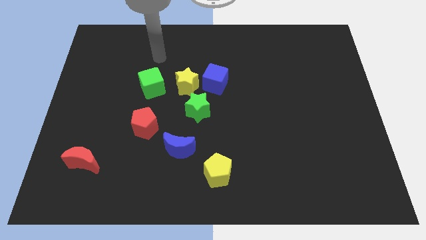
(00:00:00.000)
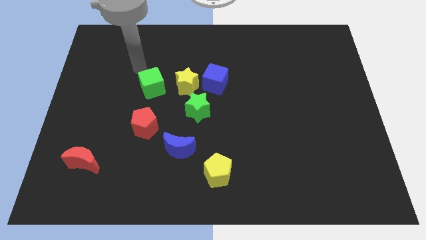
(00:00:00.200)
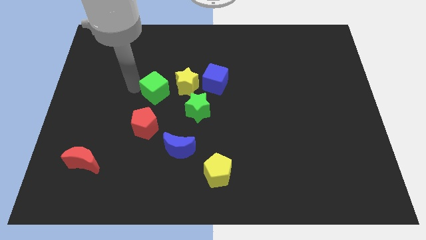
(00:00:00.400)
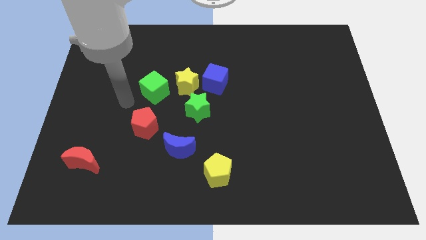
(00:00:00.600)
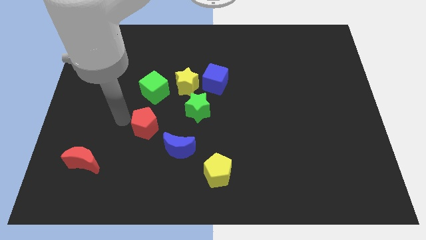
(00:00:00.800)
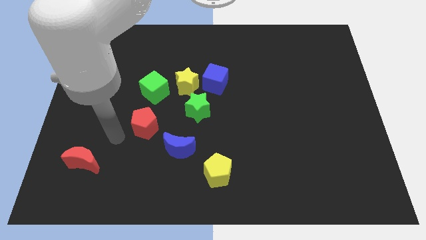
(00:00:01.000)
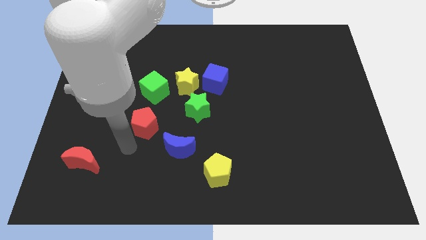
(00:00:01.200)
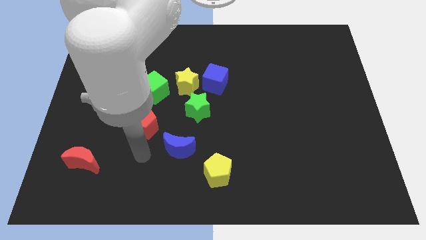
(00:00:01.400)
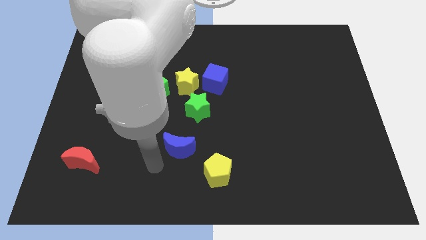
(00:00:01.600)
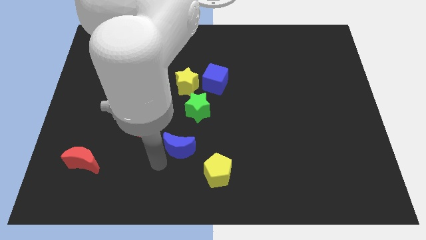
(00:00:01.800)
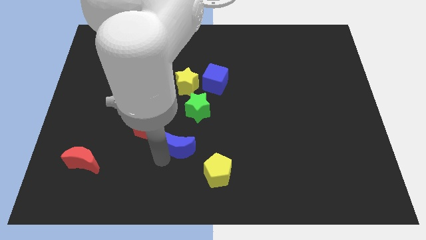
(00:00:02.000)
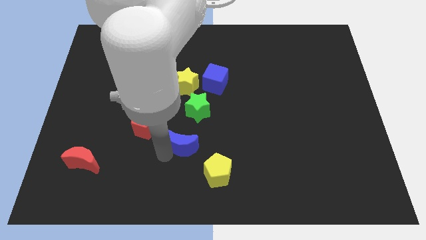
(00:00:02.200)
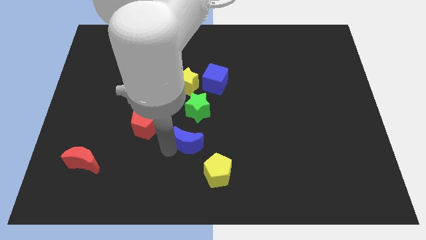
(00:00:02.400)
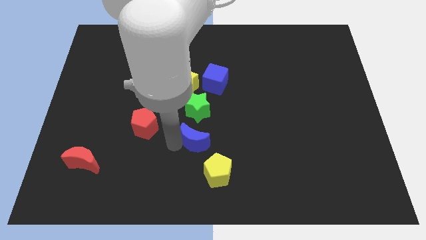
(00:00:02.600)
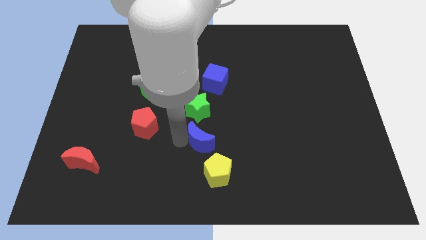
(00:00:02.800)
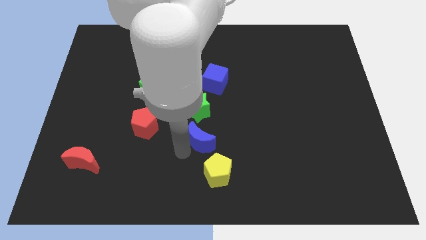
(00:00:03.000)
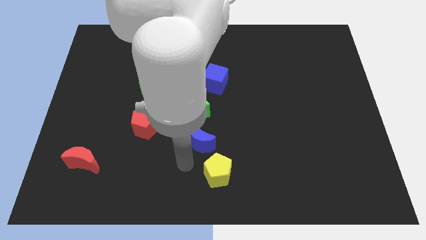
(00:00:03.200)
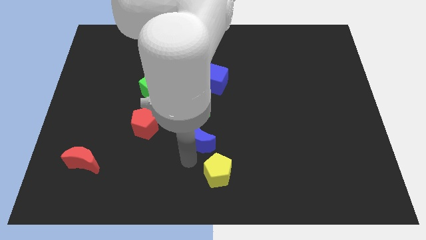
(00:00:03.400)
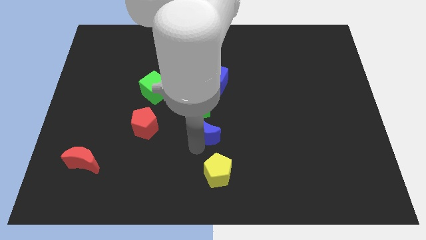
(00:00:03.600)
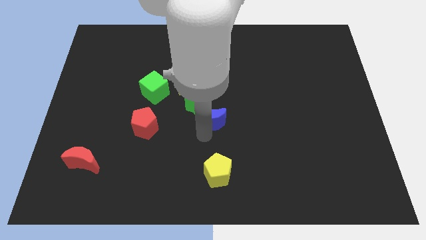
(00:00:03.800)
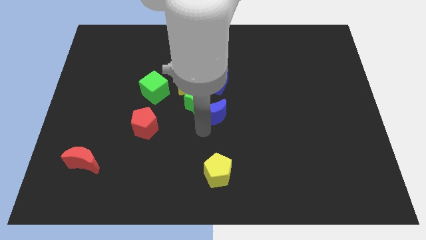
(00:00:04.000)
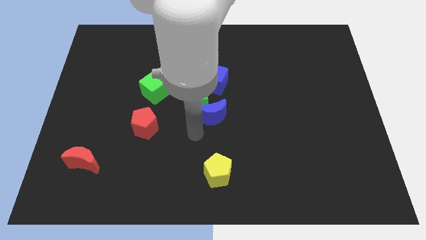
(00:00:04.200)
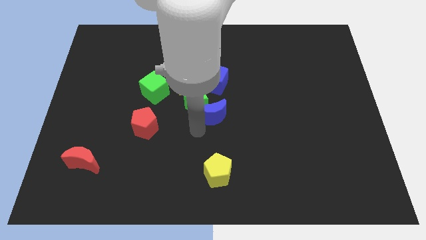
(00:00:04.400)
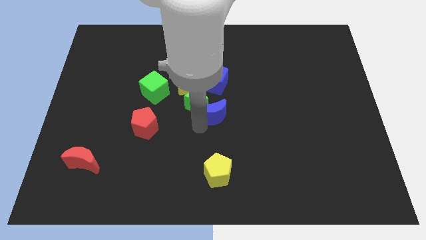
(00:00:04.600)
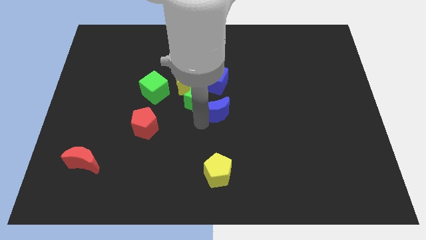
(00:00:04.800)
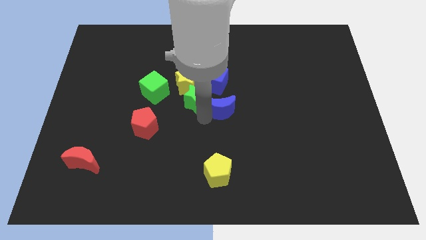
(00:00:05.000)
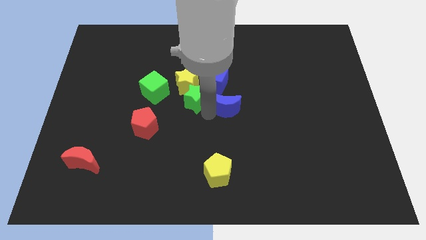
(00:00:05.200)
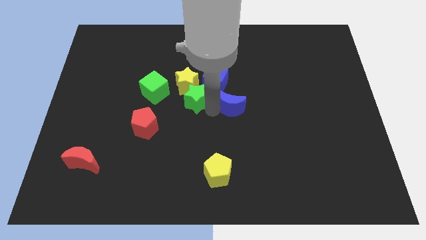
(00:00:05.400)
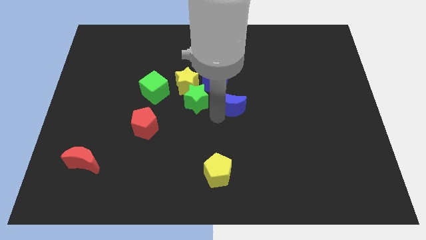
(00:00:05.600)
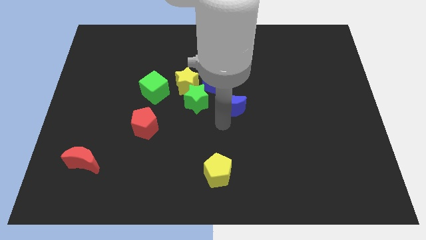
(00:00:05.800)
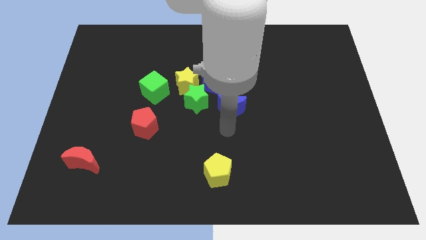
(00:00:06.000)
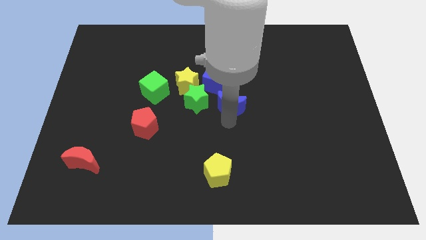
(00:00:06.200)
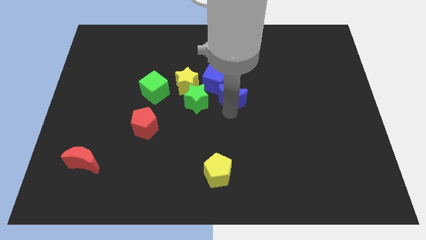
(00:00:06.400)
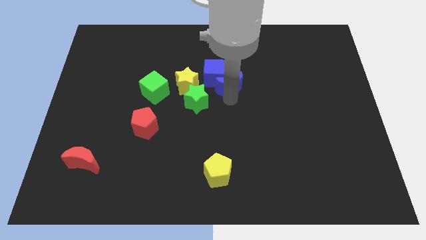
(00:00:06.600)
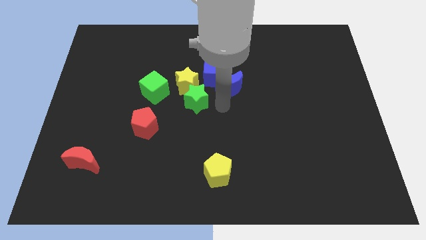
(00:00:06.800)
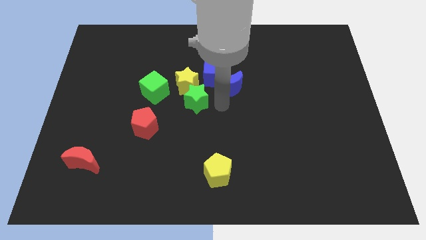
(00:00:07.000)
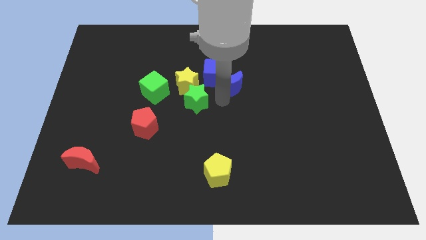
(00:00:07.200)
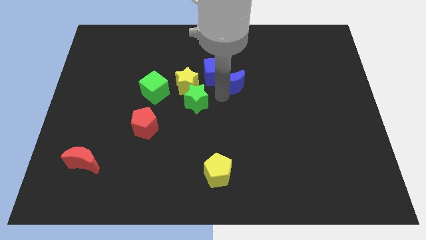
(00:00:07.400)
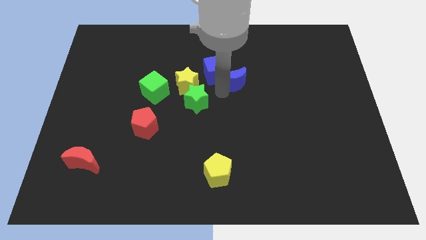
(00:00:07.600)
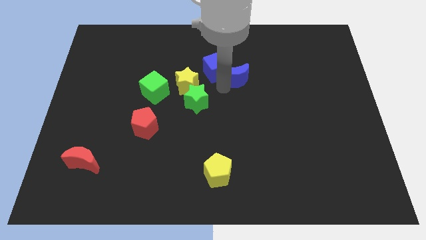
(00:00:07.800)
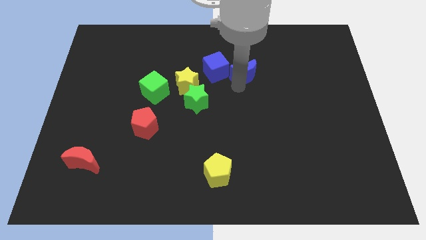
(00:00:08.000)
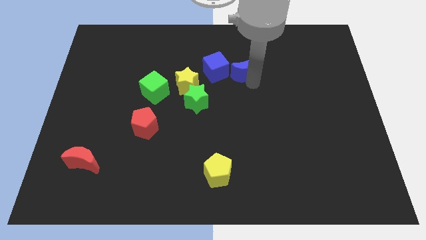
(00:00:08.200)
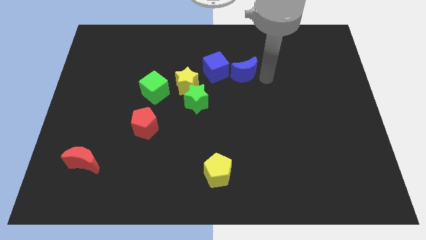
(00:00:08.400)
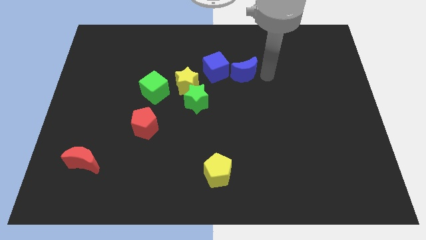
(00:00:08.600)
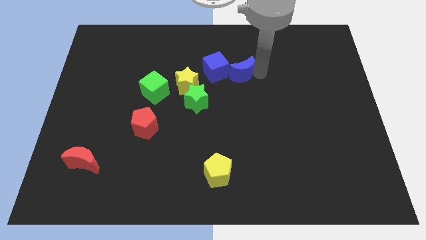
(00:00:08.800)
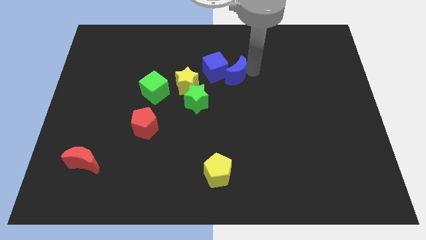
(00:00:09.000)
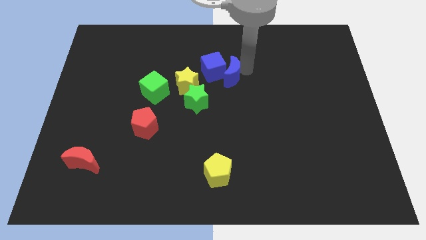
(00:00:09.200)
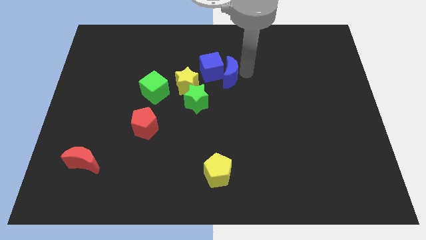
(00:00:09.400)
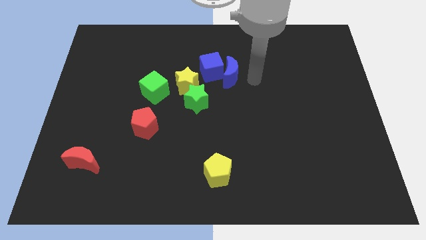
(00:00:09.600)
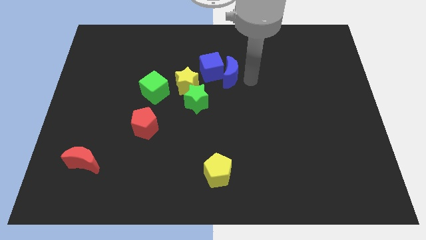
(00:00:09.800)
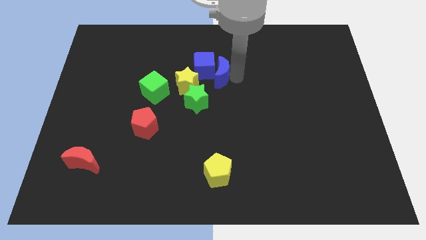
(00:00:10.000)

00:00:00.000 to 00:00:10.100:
push the blue moon diagonally up and to the right of the yellow star

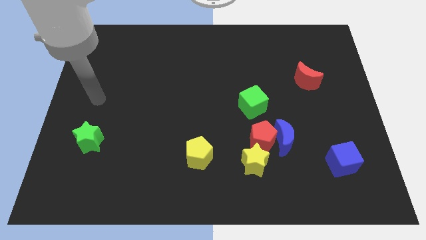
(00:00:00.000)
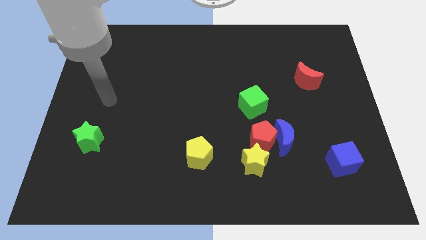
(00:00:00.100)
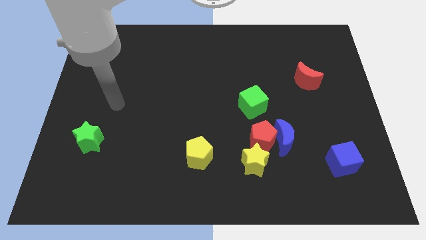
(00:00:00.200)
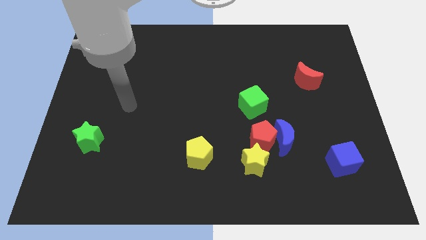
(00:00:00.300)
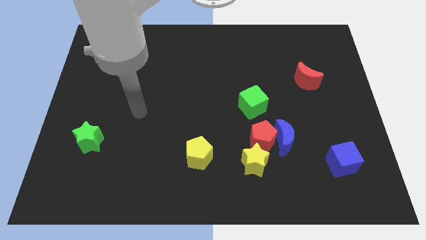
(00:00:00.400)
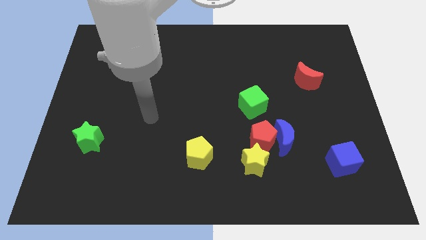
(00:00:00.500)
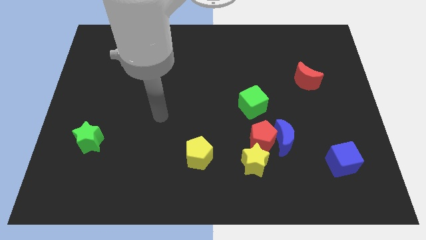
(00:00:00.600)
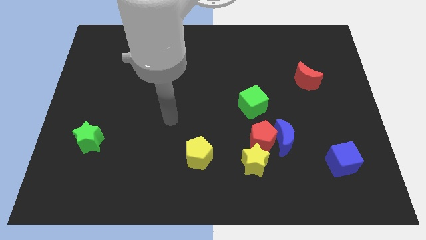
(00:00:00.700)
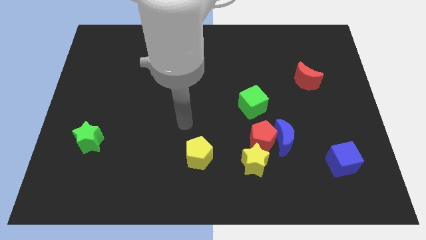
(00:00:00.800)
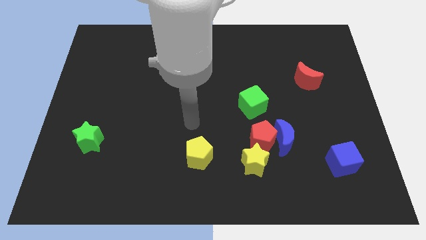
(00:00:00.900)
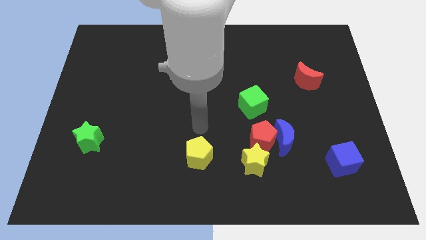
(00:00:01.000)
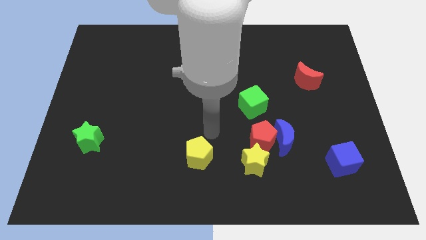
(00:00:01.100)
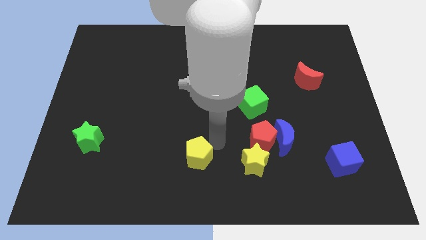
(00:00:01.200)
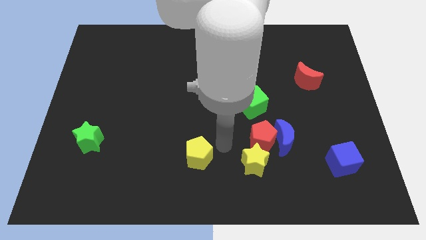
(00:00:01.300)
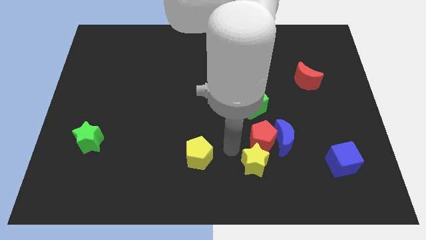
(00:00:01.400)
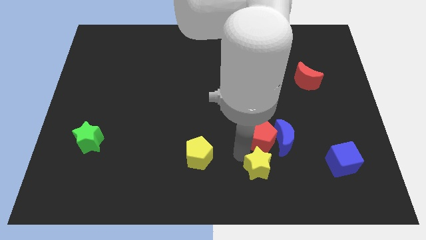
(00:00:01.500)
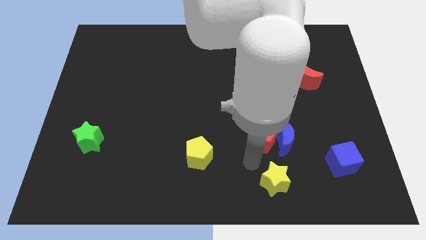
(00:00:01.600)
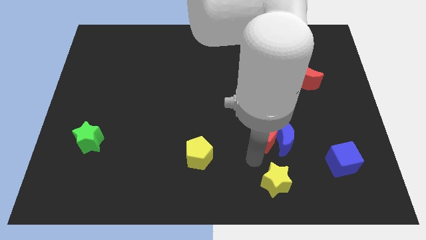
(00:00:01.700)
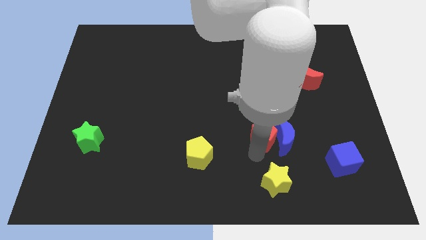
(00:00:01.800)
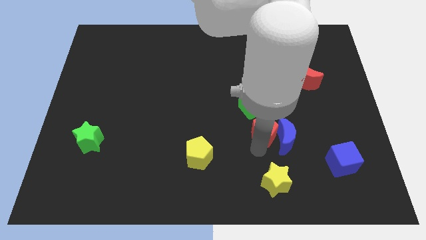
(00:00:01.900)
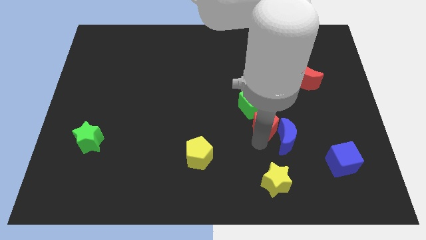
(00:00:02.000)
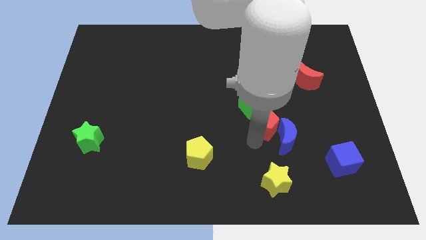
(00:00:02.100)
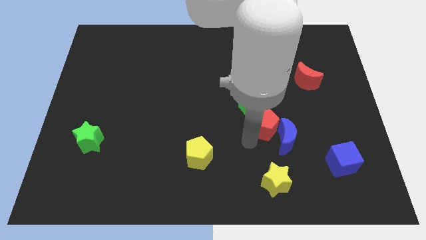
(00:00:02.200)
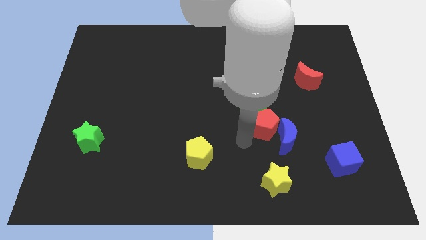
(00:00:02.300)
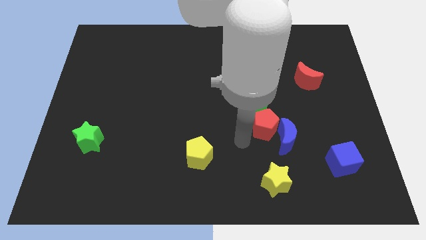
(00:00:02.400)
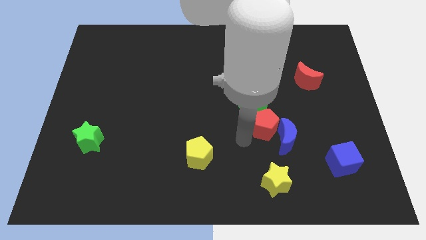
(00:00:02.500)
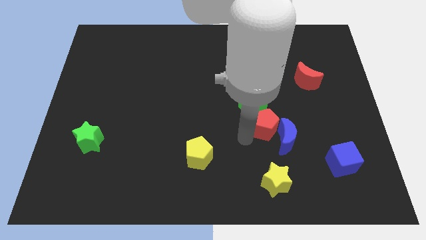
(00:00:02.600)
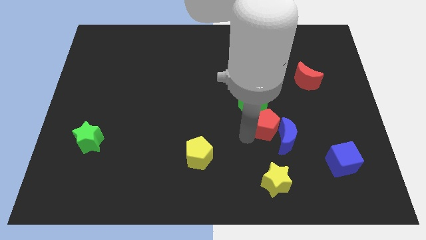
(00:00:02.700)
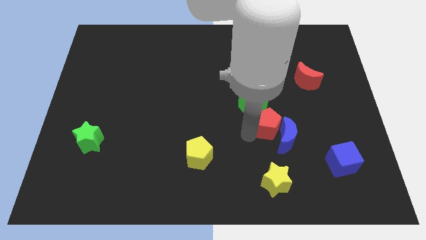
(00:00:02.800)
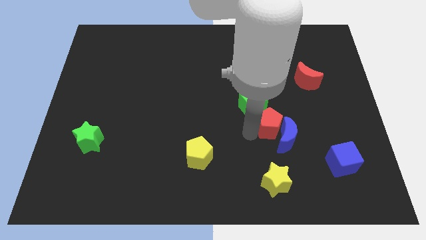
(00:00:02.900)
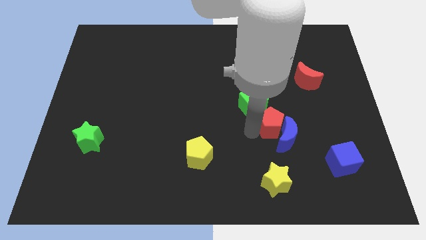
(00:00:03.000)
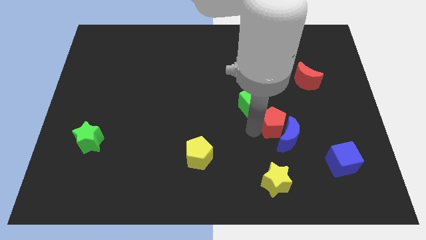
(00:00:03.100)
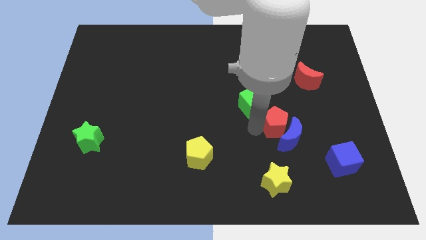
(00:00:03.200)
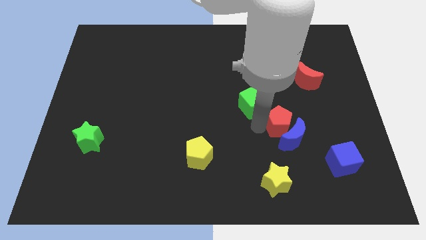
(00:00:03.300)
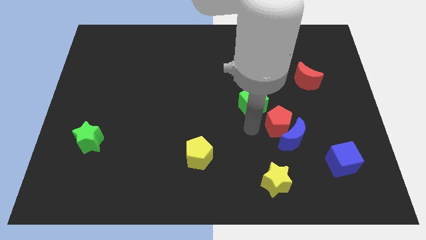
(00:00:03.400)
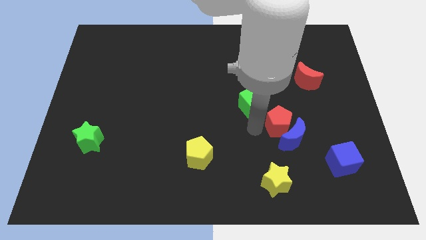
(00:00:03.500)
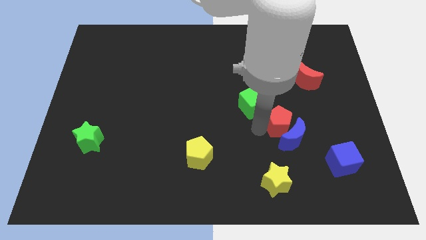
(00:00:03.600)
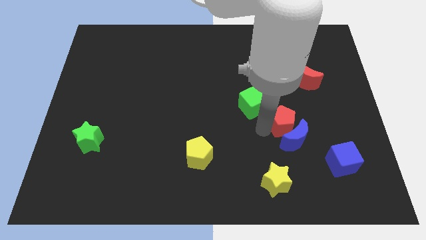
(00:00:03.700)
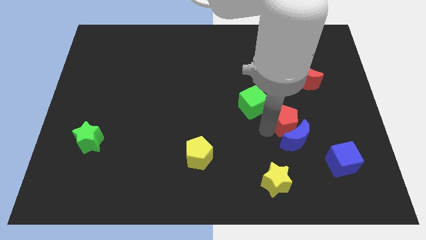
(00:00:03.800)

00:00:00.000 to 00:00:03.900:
put the red pentagon diagonally up and to the right of the blue moon
